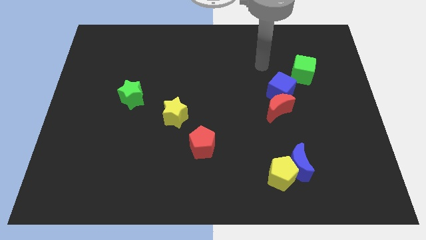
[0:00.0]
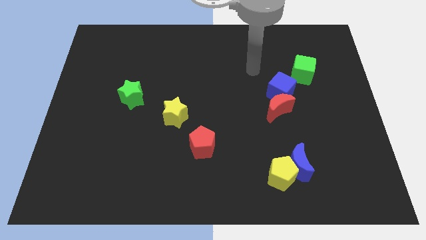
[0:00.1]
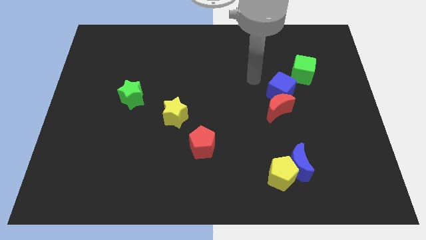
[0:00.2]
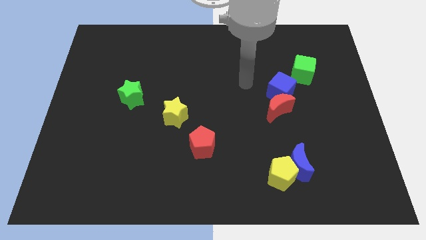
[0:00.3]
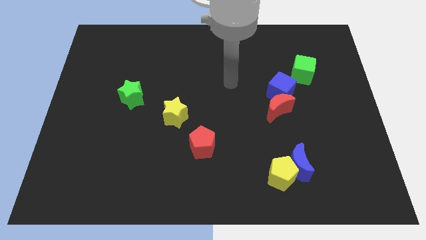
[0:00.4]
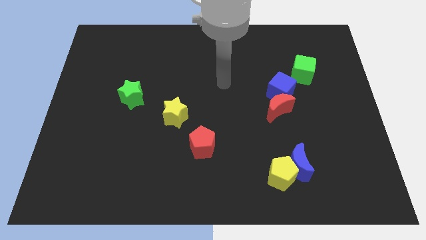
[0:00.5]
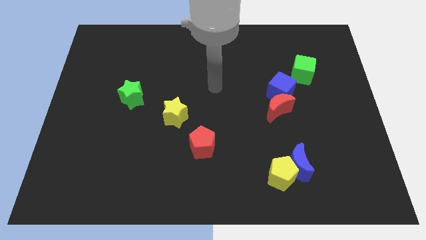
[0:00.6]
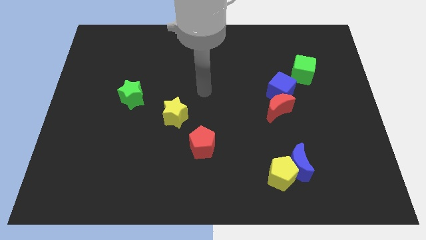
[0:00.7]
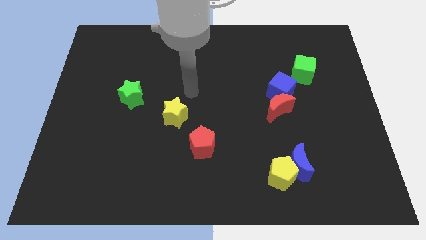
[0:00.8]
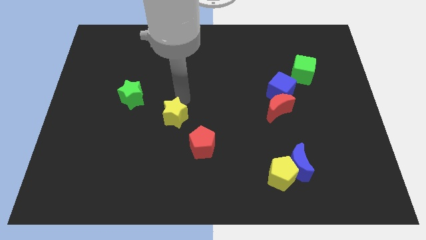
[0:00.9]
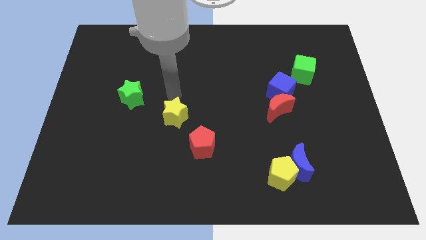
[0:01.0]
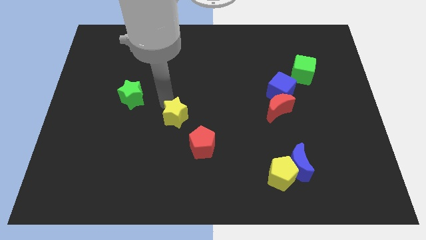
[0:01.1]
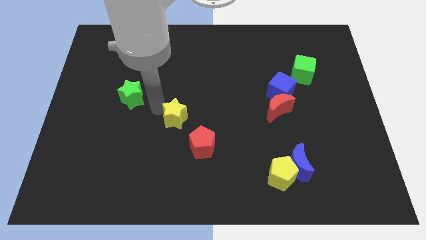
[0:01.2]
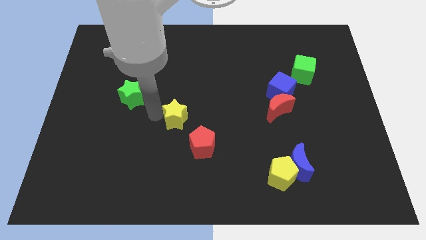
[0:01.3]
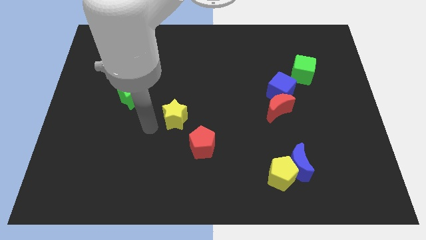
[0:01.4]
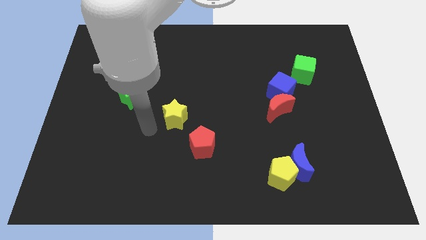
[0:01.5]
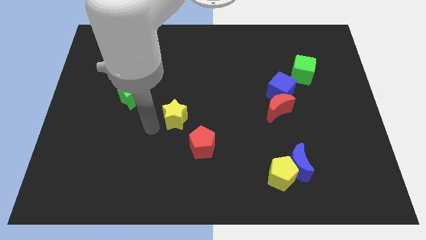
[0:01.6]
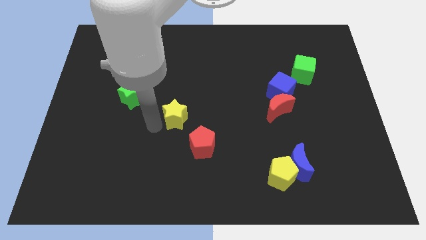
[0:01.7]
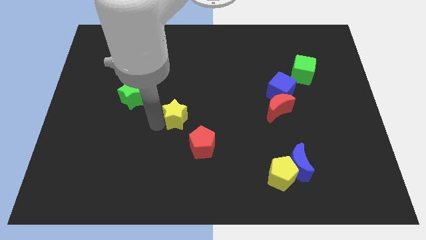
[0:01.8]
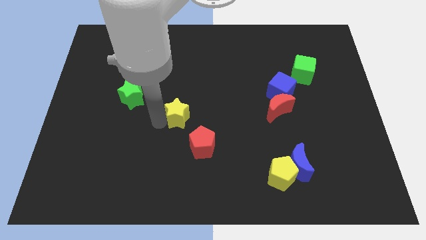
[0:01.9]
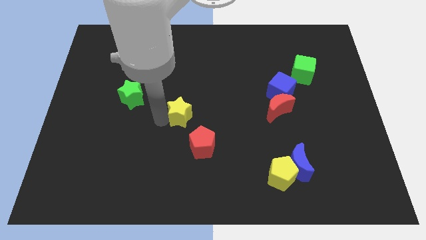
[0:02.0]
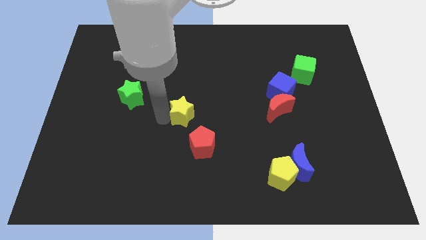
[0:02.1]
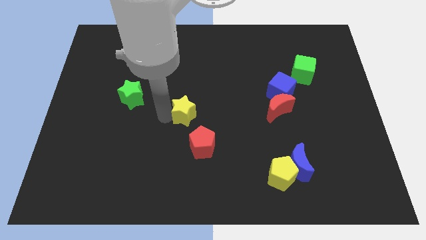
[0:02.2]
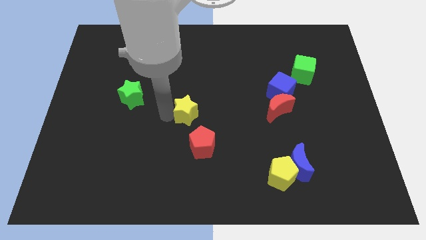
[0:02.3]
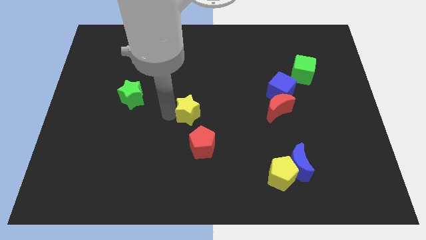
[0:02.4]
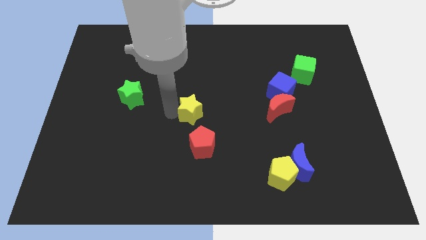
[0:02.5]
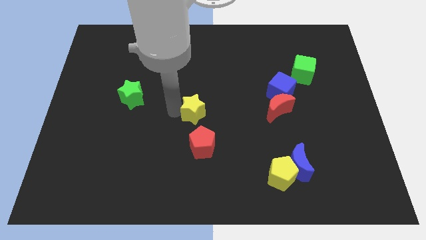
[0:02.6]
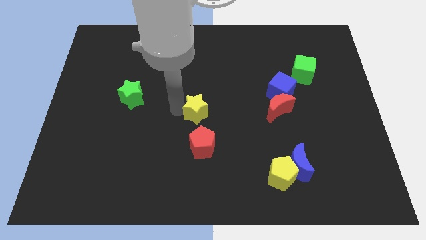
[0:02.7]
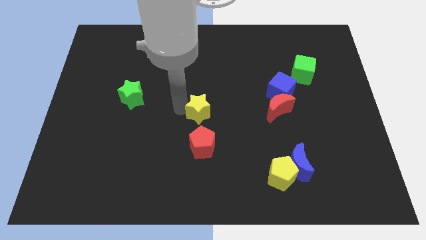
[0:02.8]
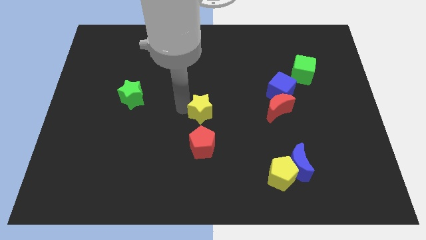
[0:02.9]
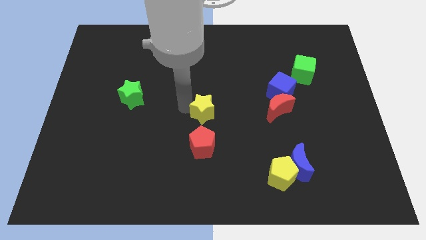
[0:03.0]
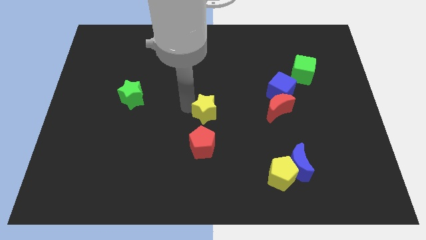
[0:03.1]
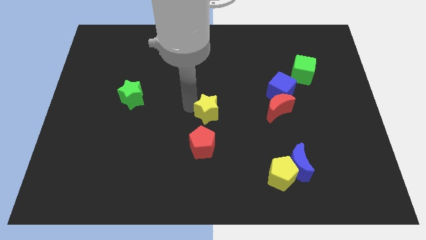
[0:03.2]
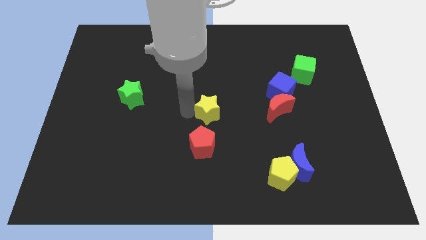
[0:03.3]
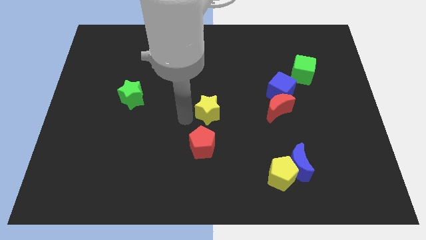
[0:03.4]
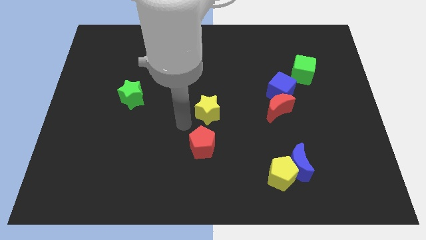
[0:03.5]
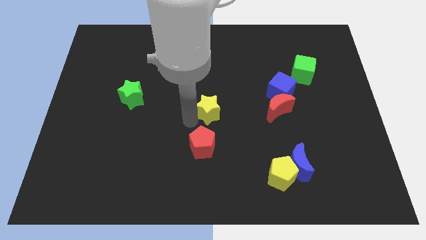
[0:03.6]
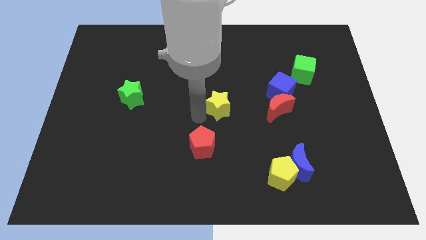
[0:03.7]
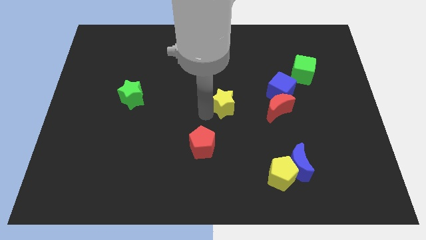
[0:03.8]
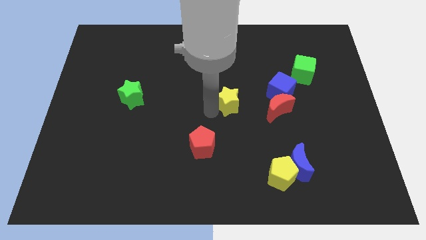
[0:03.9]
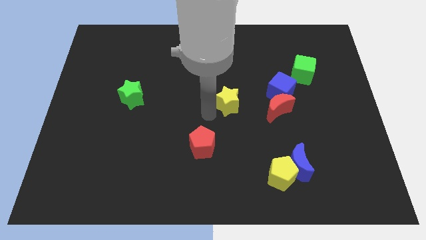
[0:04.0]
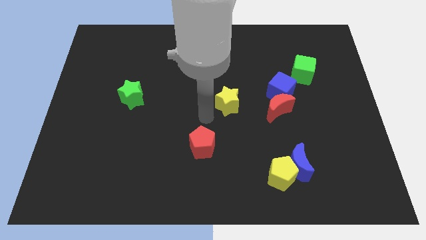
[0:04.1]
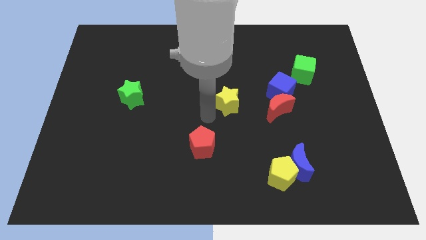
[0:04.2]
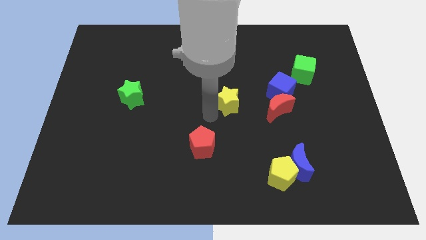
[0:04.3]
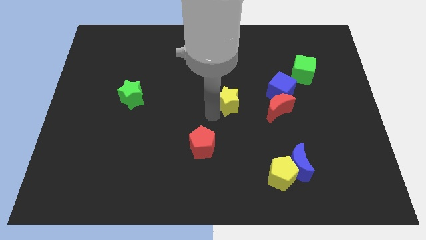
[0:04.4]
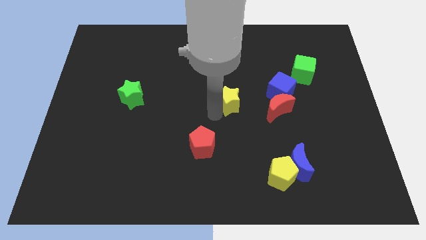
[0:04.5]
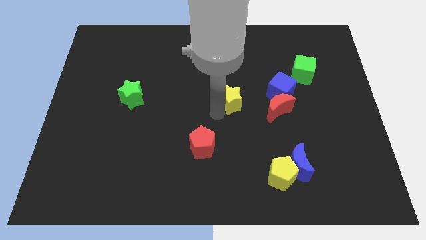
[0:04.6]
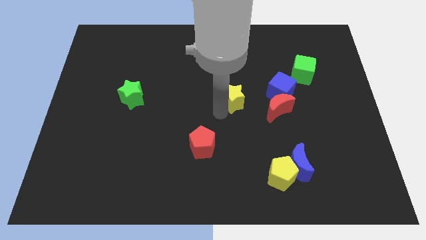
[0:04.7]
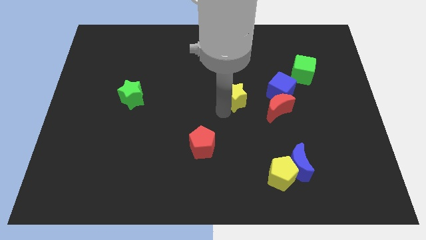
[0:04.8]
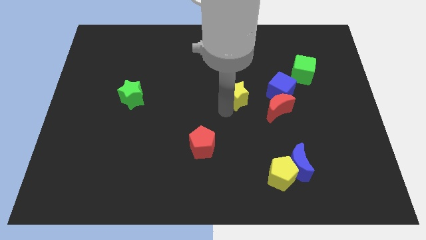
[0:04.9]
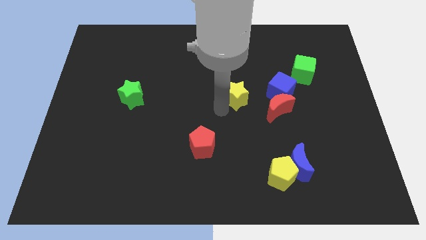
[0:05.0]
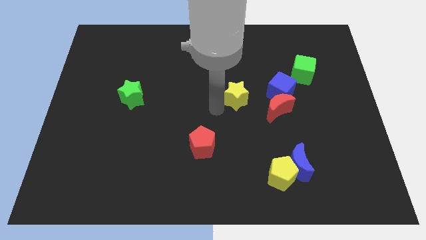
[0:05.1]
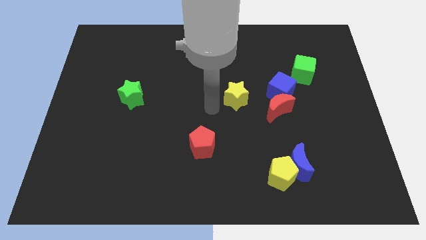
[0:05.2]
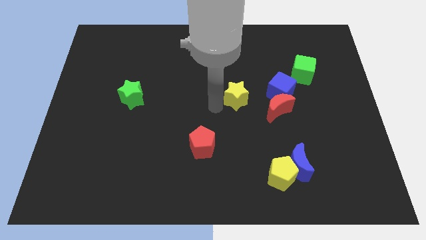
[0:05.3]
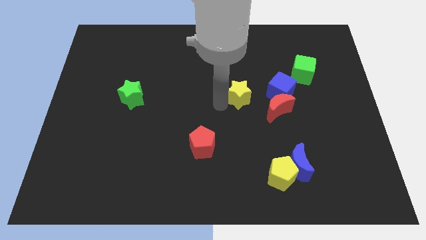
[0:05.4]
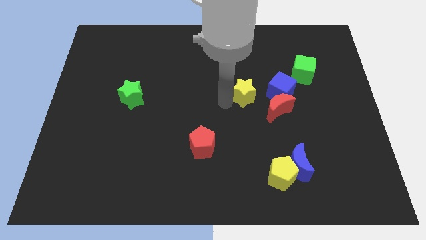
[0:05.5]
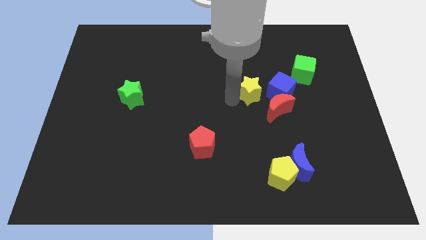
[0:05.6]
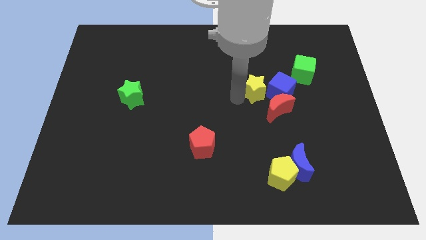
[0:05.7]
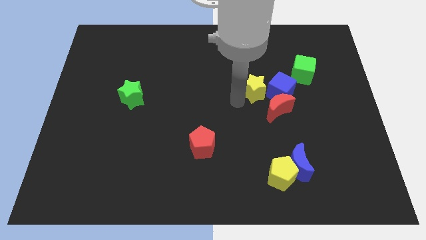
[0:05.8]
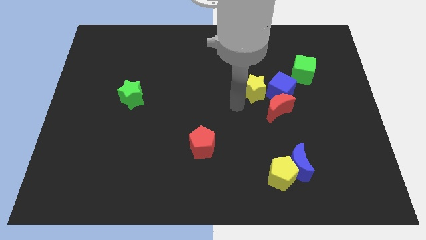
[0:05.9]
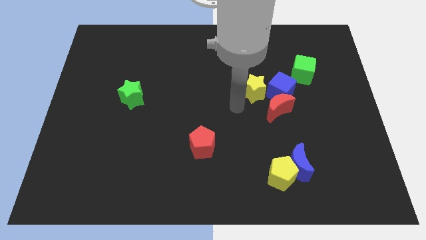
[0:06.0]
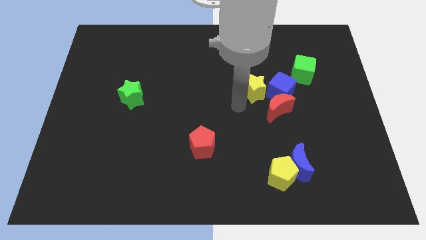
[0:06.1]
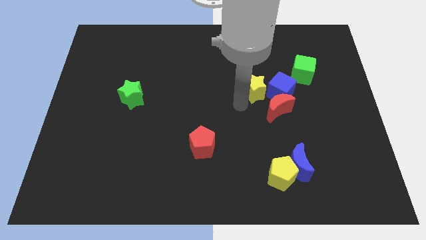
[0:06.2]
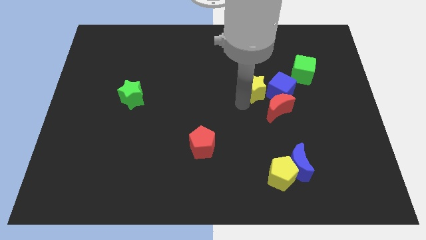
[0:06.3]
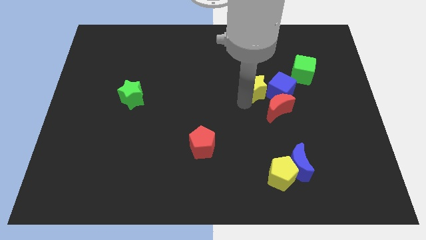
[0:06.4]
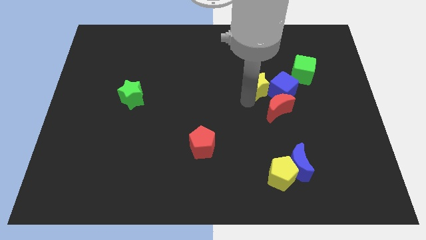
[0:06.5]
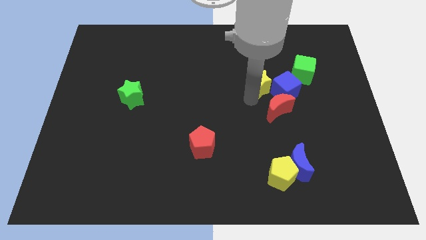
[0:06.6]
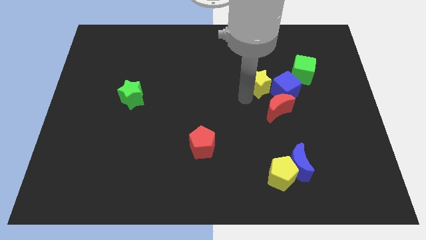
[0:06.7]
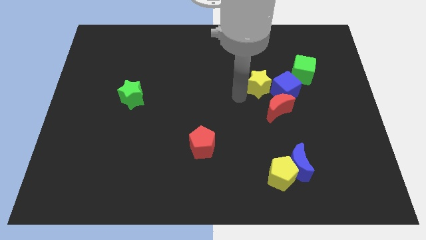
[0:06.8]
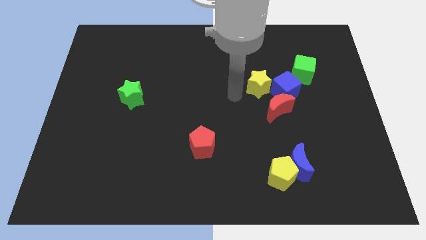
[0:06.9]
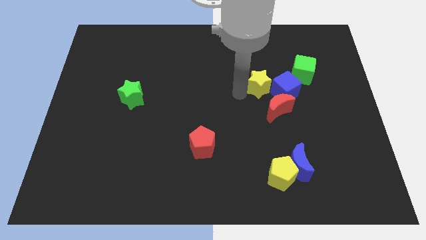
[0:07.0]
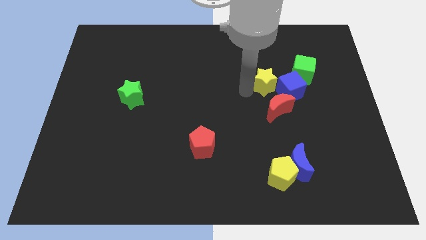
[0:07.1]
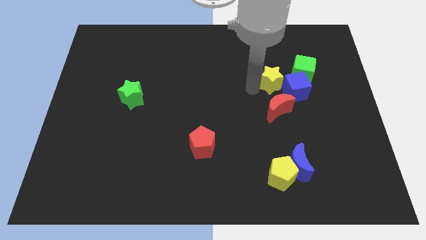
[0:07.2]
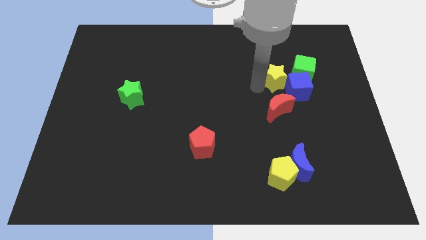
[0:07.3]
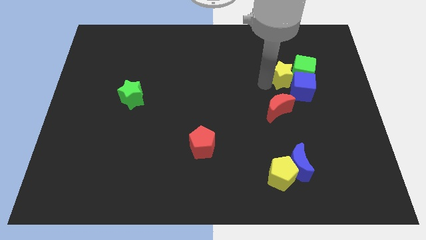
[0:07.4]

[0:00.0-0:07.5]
push the yellow star close to the green cube

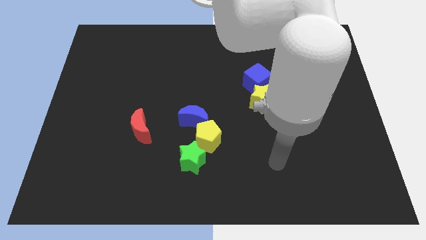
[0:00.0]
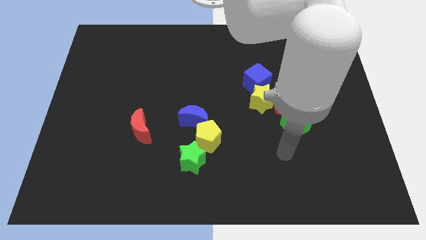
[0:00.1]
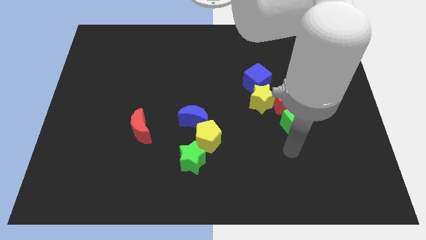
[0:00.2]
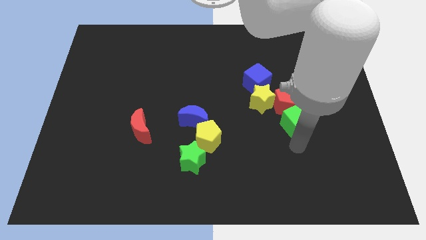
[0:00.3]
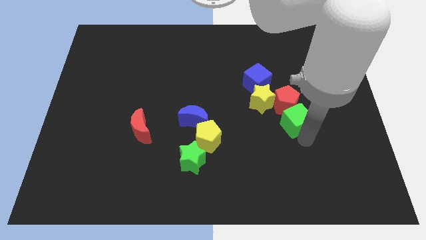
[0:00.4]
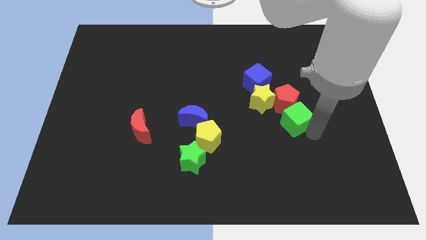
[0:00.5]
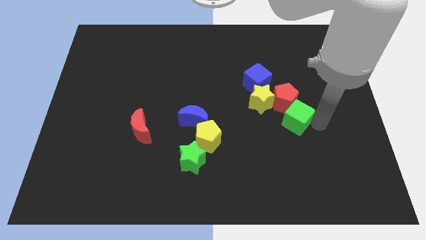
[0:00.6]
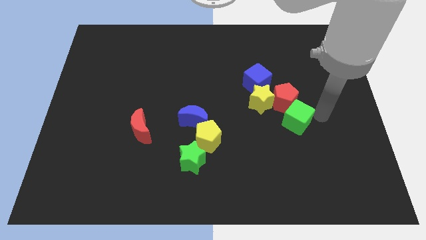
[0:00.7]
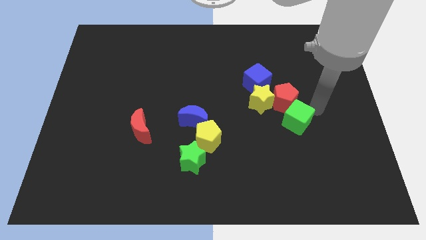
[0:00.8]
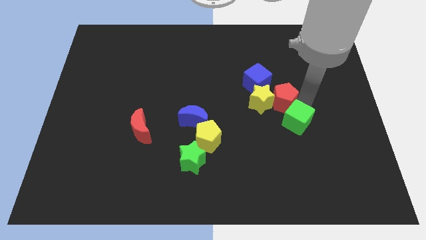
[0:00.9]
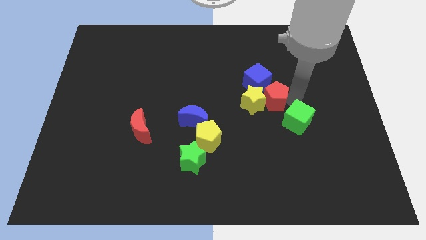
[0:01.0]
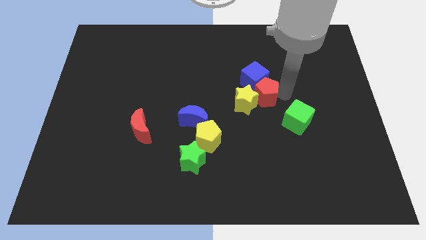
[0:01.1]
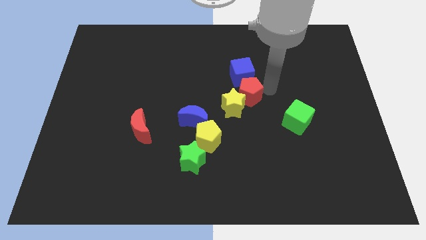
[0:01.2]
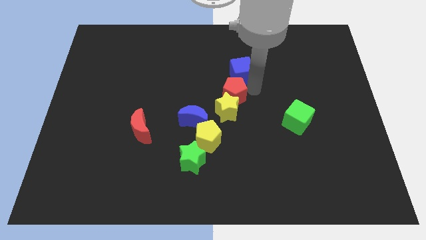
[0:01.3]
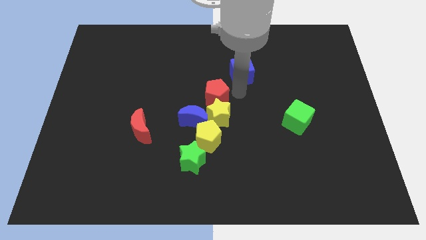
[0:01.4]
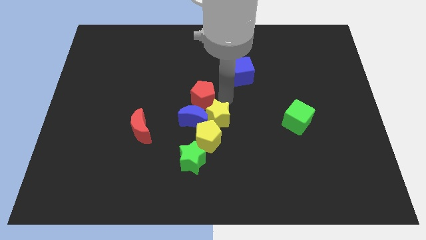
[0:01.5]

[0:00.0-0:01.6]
move the yellow star towards the yellow pentagon
